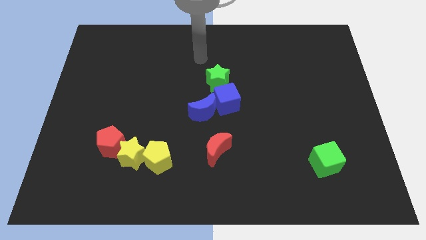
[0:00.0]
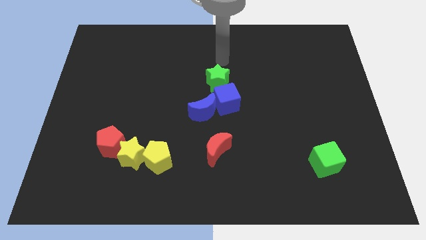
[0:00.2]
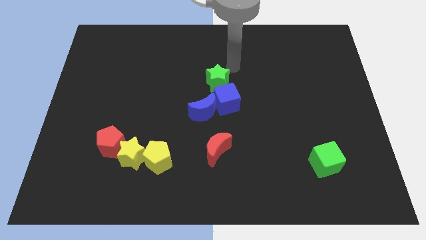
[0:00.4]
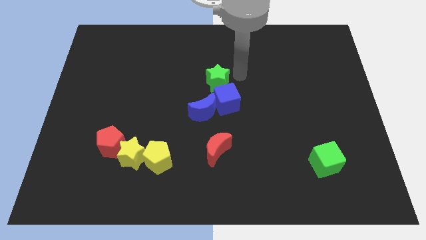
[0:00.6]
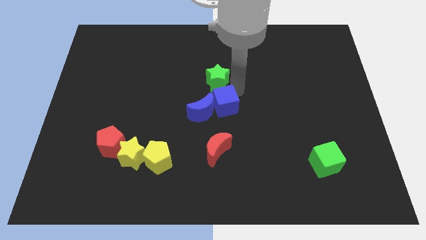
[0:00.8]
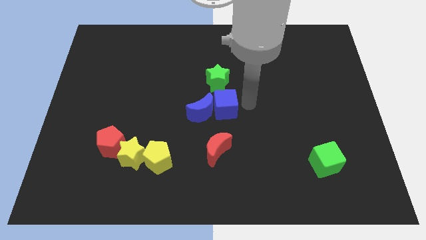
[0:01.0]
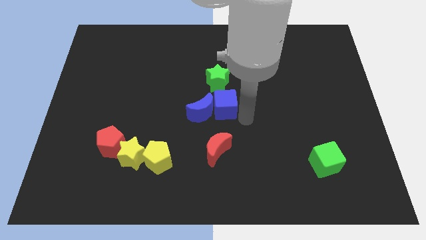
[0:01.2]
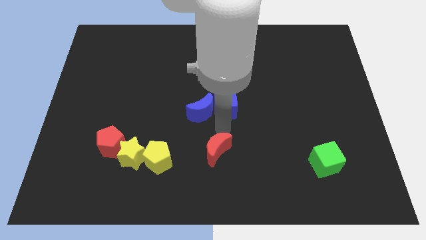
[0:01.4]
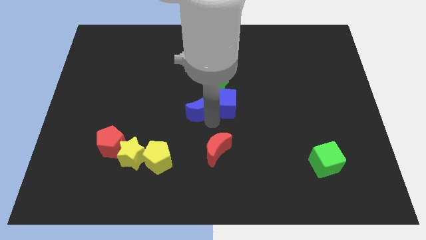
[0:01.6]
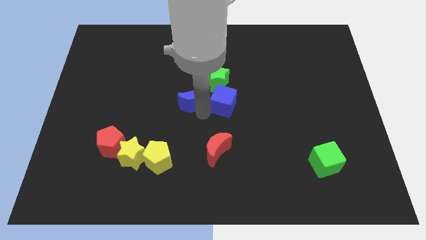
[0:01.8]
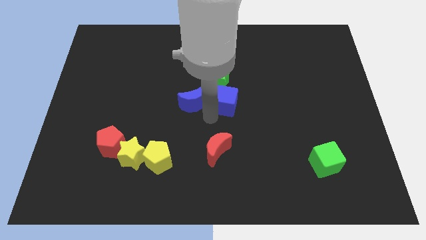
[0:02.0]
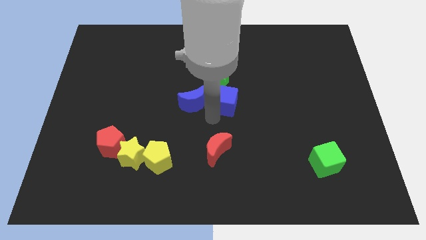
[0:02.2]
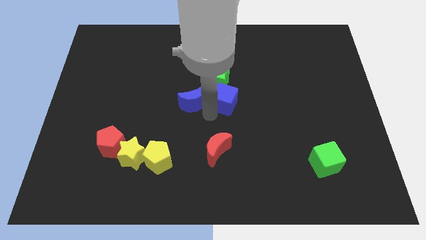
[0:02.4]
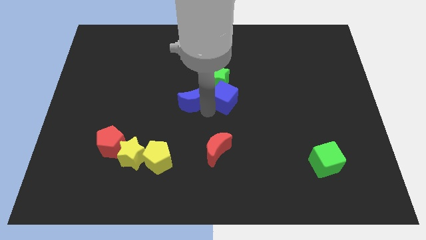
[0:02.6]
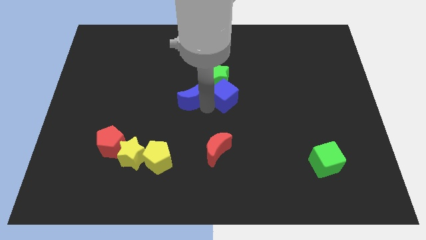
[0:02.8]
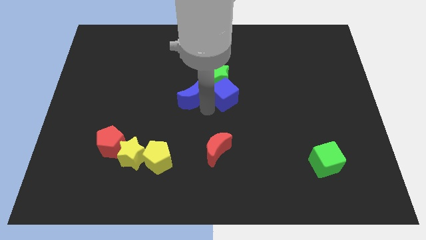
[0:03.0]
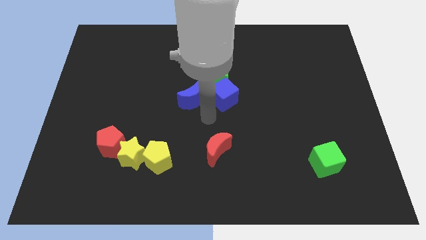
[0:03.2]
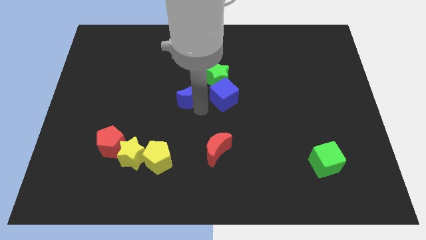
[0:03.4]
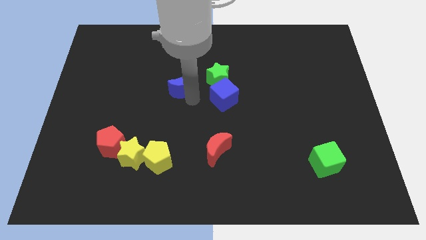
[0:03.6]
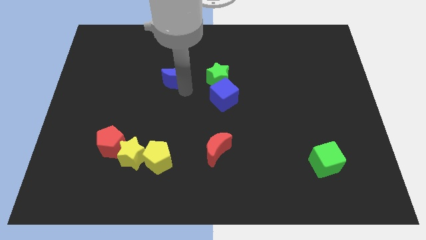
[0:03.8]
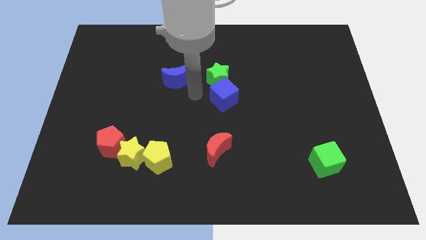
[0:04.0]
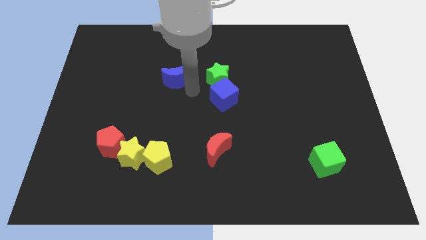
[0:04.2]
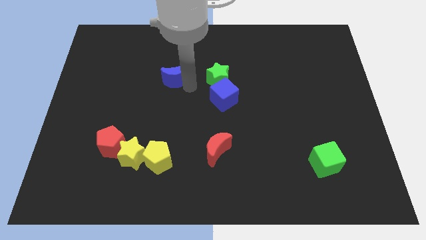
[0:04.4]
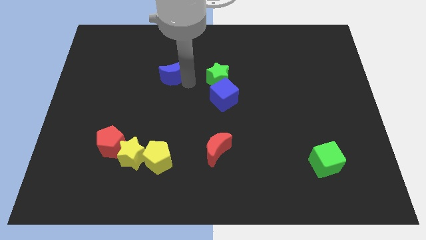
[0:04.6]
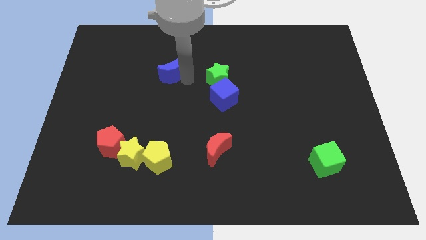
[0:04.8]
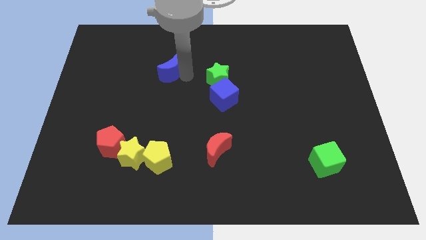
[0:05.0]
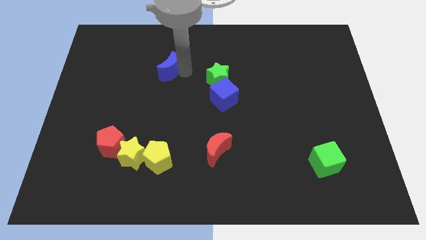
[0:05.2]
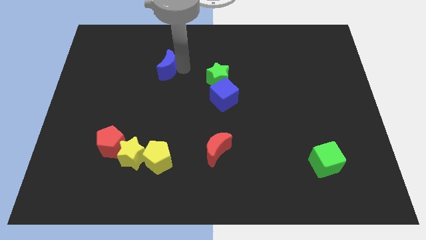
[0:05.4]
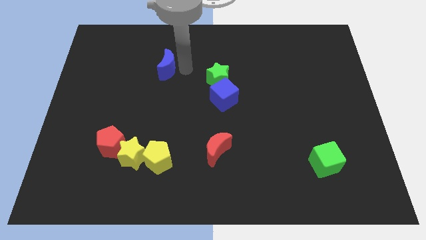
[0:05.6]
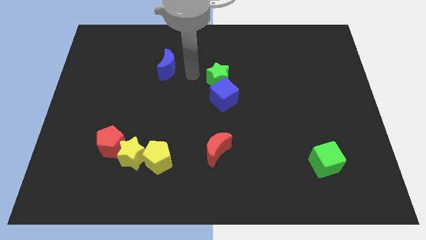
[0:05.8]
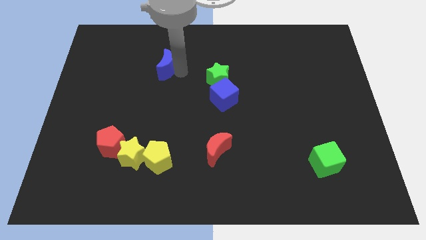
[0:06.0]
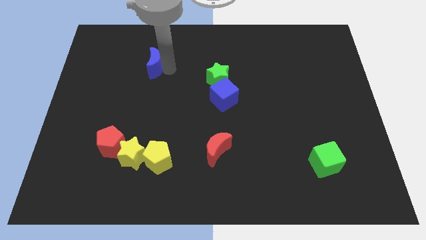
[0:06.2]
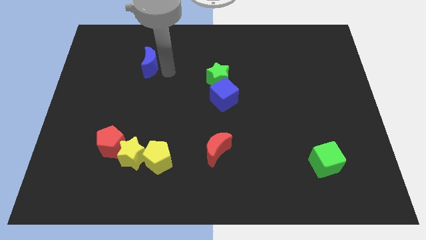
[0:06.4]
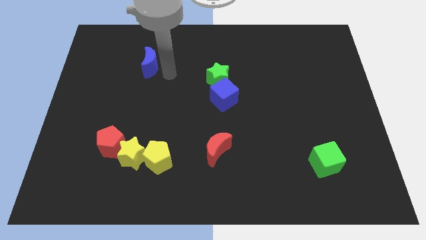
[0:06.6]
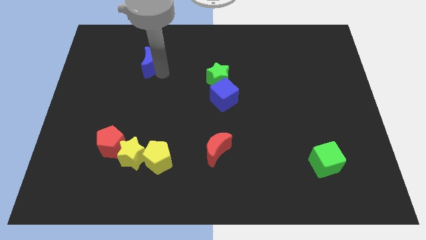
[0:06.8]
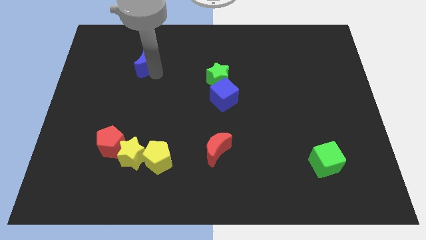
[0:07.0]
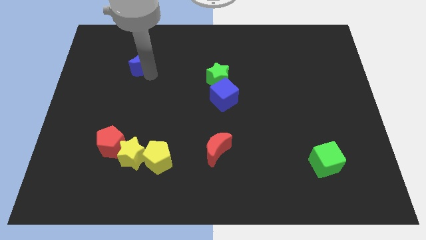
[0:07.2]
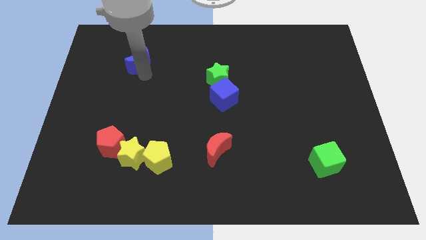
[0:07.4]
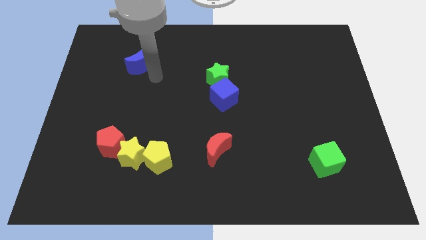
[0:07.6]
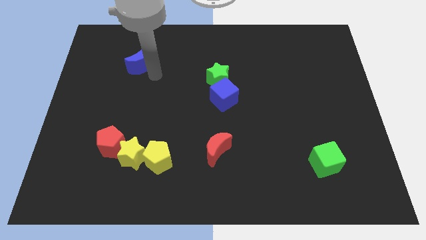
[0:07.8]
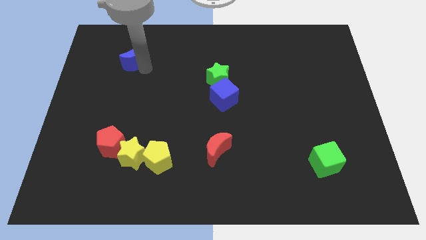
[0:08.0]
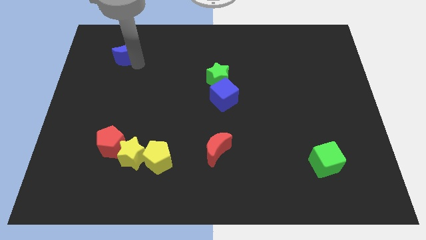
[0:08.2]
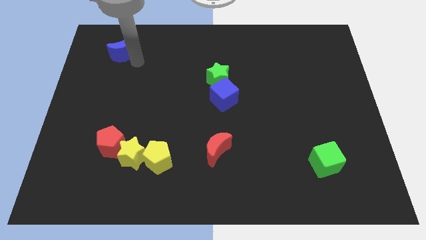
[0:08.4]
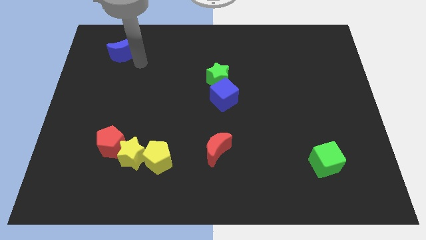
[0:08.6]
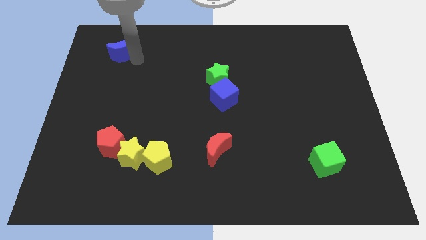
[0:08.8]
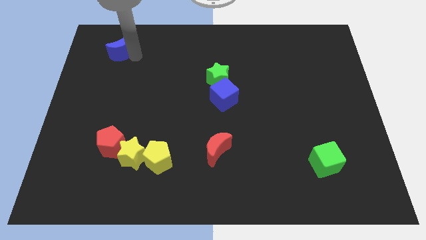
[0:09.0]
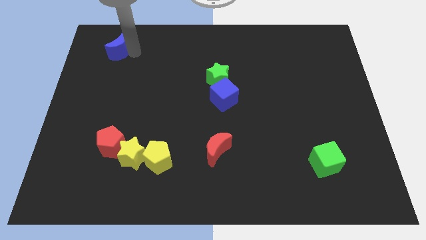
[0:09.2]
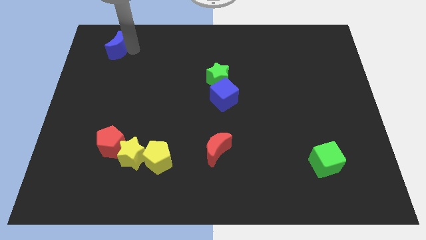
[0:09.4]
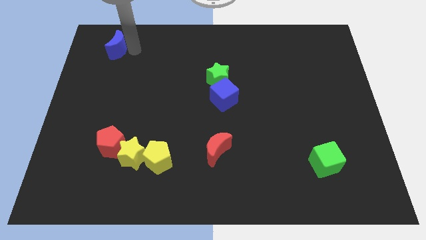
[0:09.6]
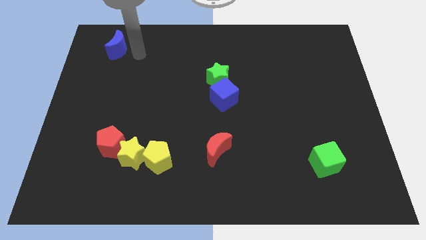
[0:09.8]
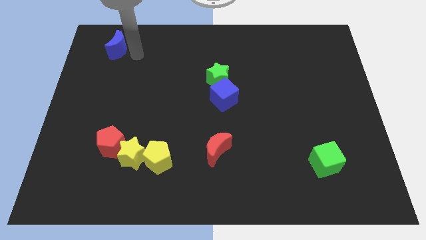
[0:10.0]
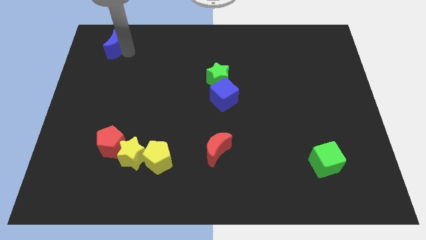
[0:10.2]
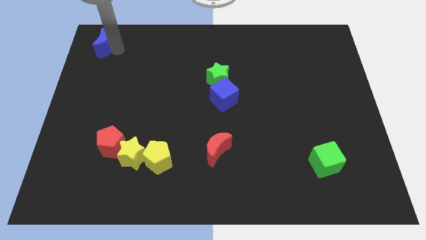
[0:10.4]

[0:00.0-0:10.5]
push the blue moon to the upper left corner
